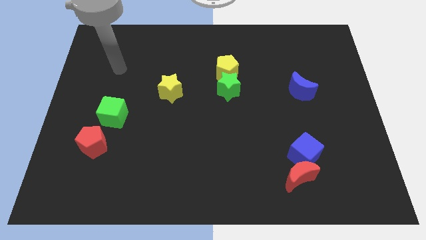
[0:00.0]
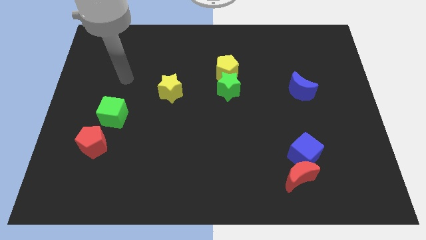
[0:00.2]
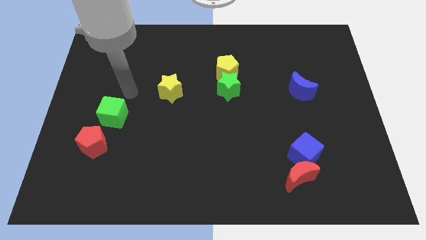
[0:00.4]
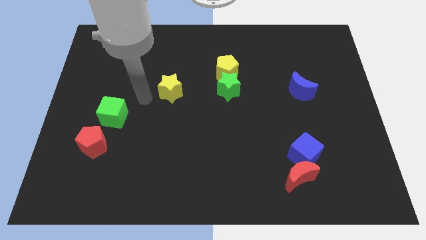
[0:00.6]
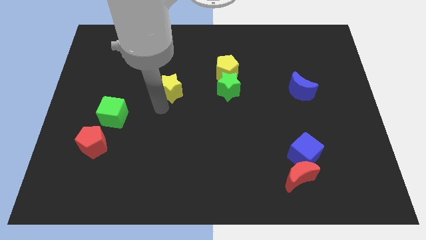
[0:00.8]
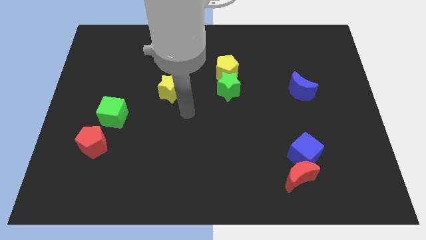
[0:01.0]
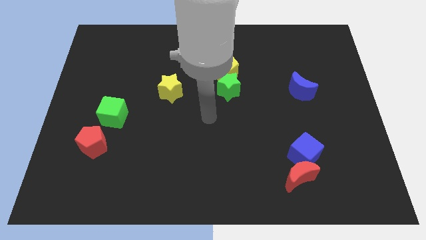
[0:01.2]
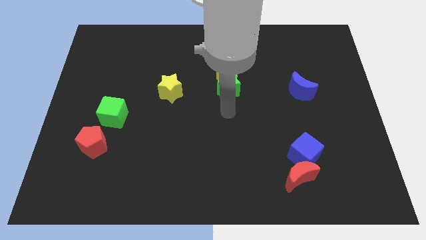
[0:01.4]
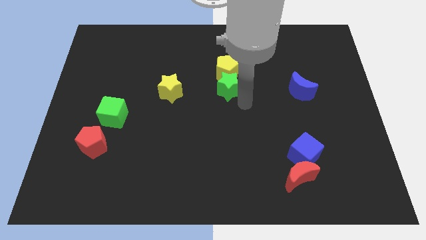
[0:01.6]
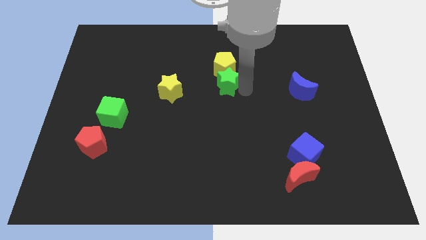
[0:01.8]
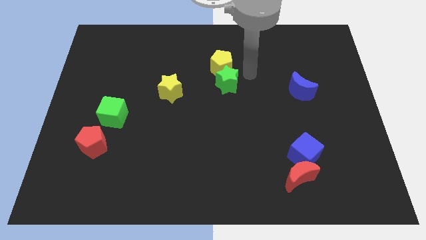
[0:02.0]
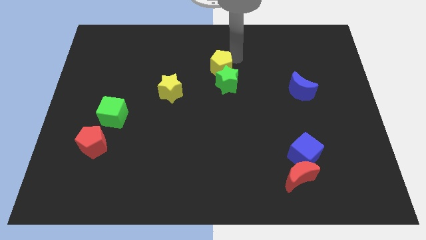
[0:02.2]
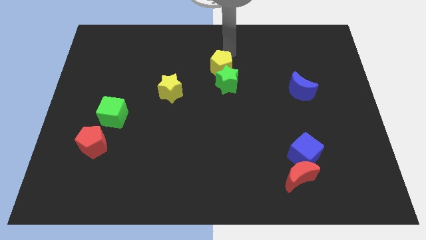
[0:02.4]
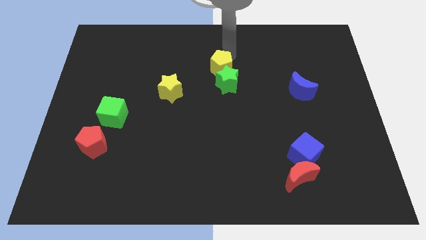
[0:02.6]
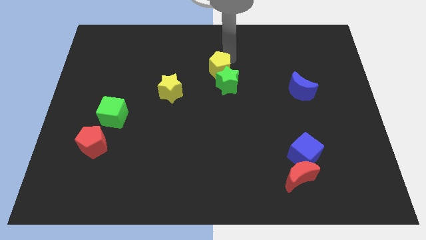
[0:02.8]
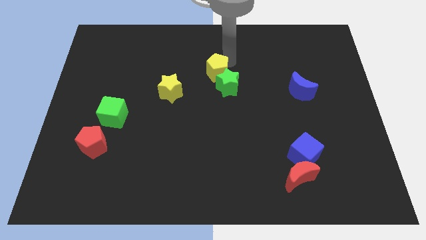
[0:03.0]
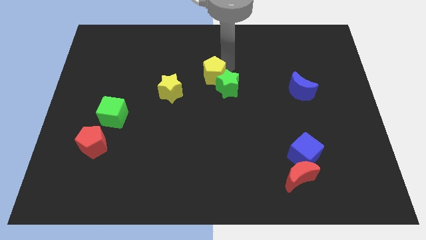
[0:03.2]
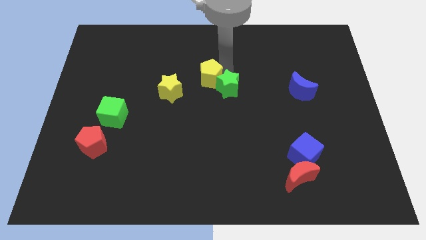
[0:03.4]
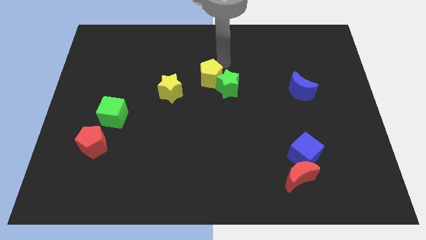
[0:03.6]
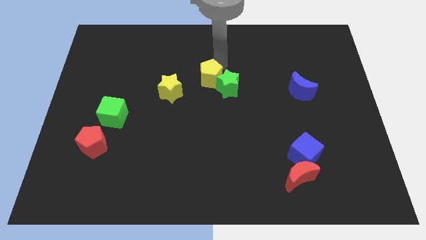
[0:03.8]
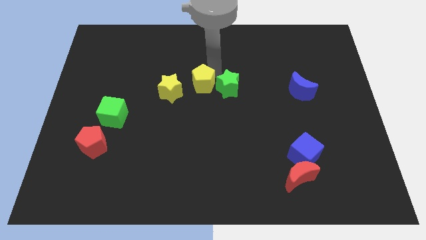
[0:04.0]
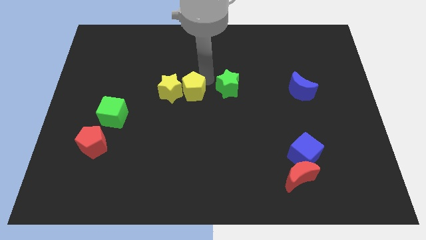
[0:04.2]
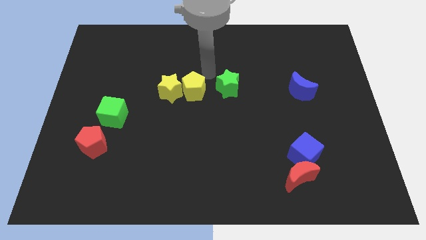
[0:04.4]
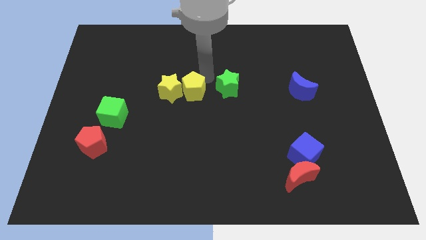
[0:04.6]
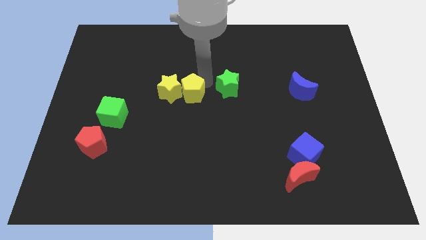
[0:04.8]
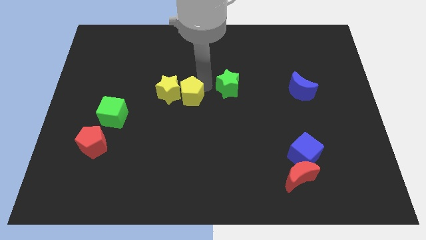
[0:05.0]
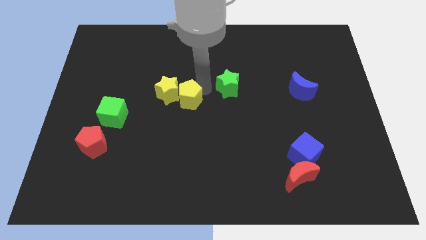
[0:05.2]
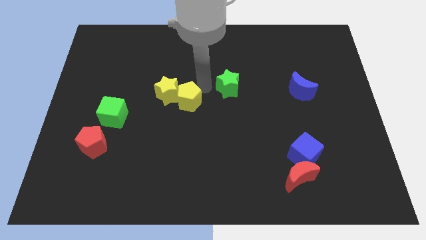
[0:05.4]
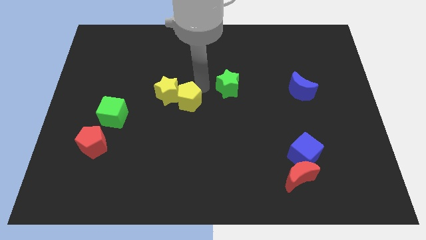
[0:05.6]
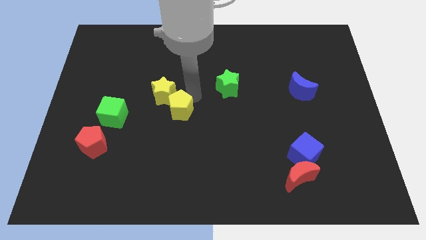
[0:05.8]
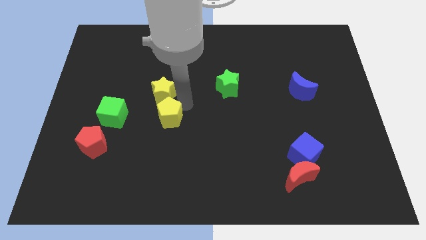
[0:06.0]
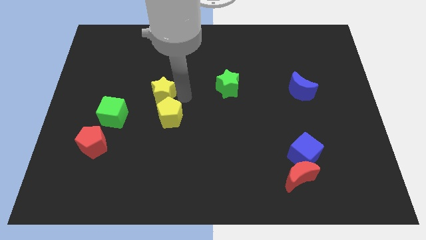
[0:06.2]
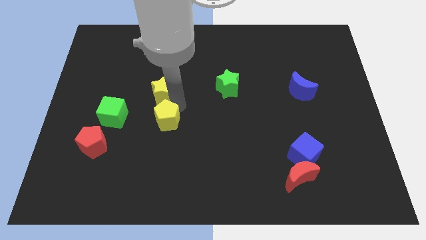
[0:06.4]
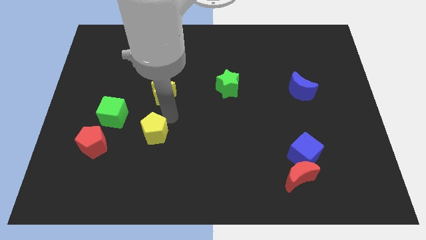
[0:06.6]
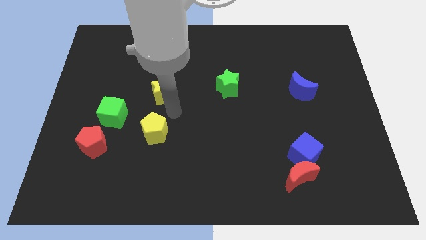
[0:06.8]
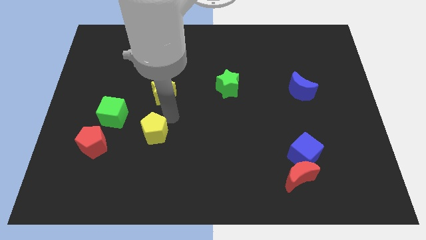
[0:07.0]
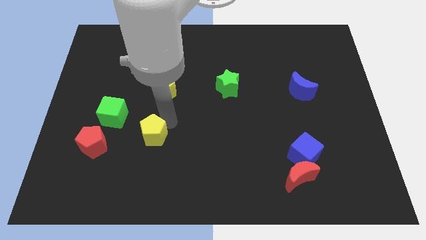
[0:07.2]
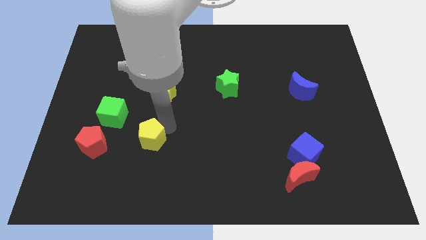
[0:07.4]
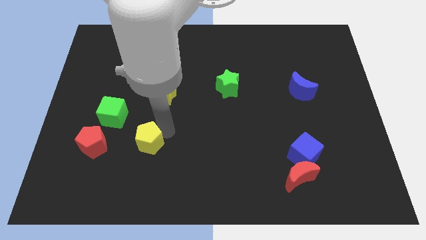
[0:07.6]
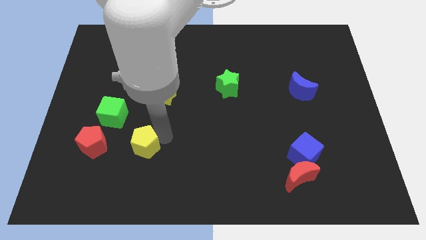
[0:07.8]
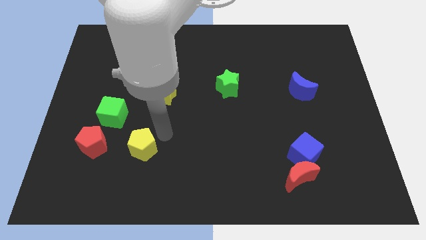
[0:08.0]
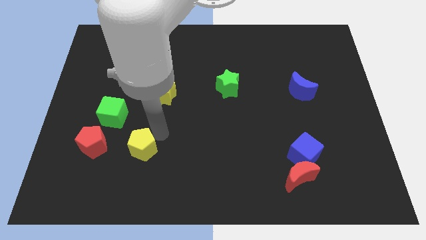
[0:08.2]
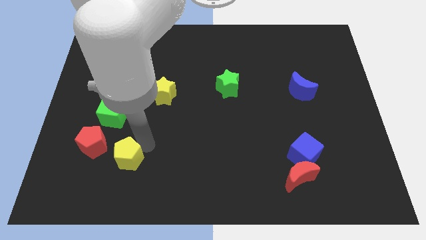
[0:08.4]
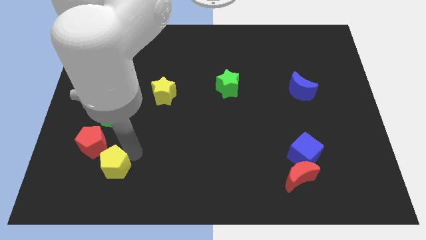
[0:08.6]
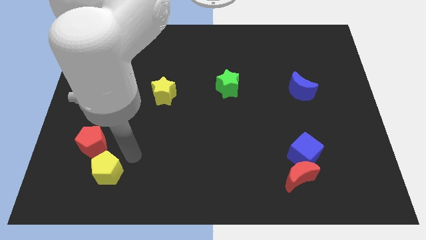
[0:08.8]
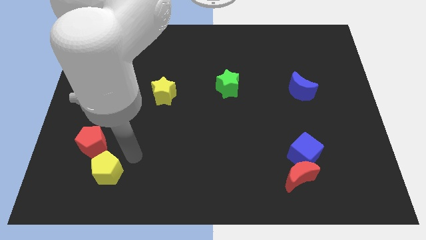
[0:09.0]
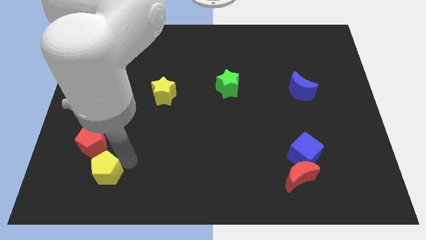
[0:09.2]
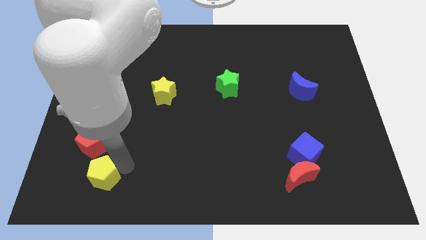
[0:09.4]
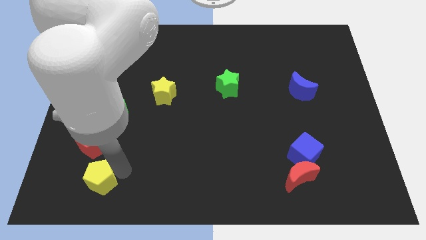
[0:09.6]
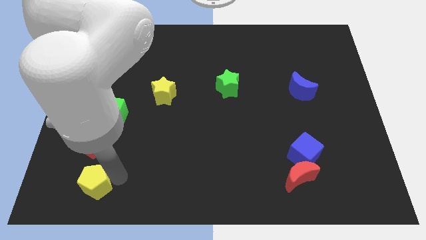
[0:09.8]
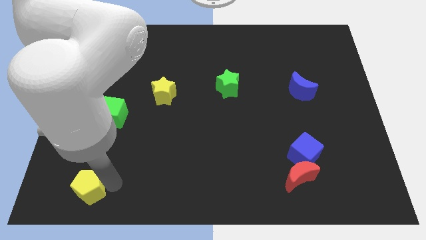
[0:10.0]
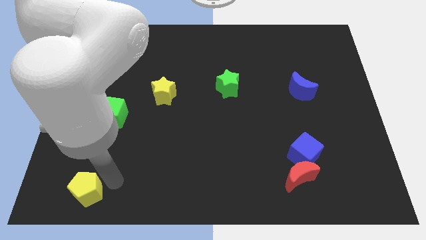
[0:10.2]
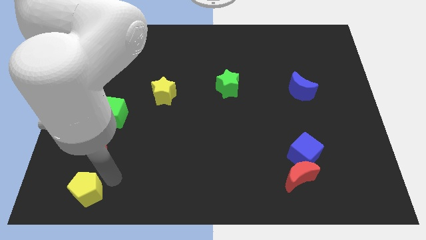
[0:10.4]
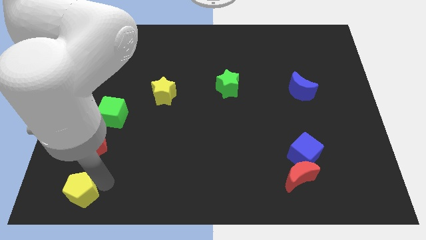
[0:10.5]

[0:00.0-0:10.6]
push the yellow pentagon to the bottom left

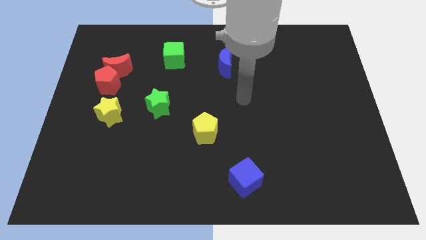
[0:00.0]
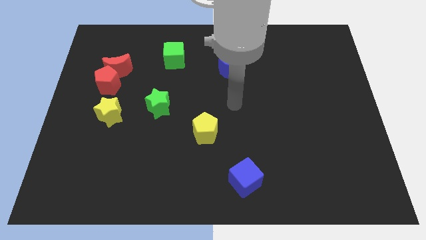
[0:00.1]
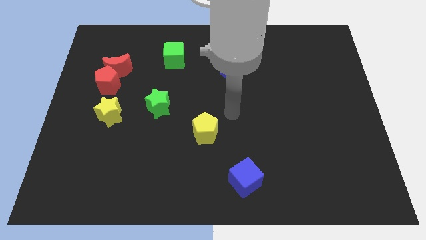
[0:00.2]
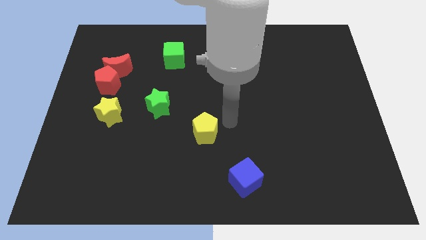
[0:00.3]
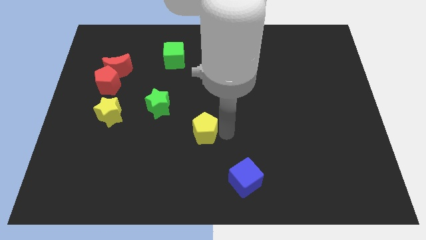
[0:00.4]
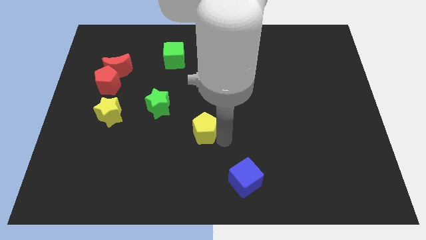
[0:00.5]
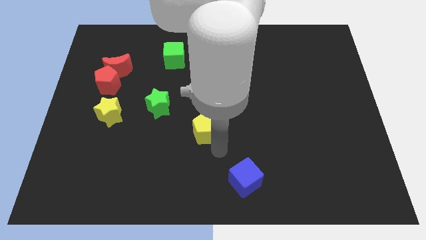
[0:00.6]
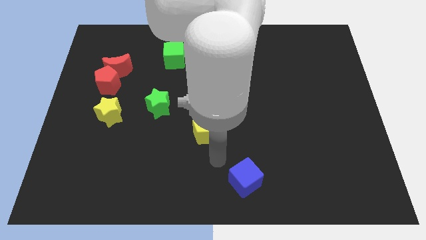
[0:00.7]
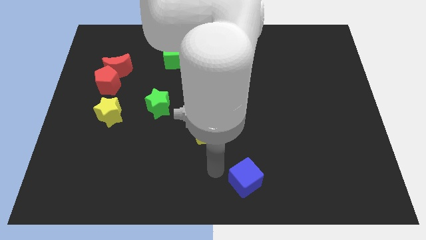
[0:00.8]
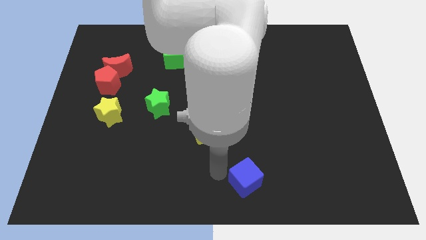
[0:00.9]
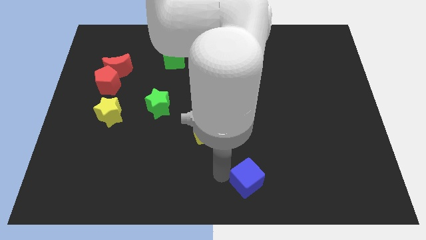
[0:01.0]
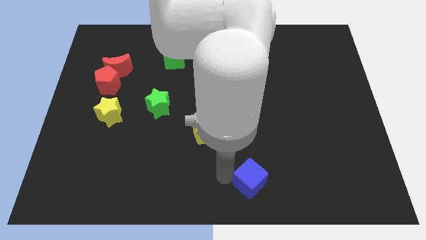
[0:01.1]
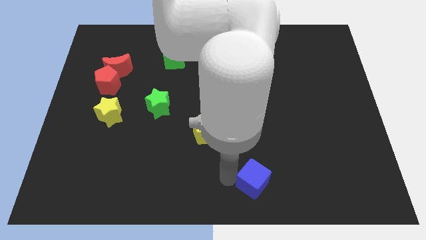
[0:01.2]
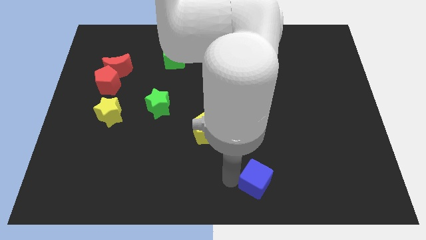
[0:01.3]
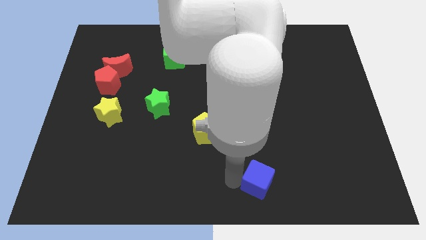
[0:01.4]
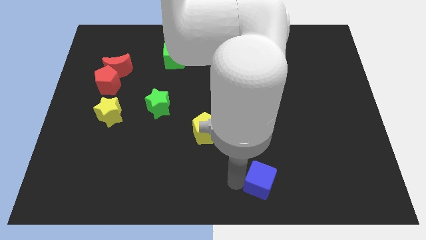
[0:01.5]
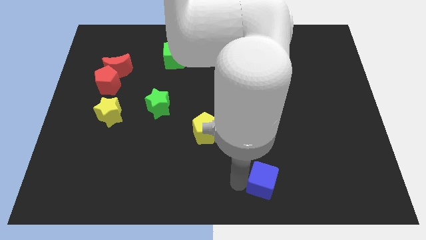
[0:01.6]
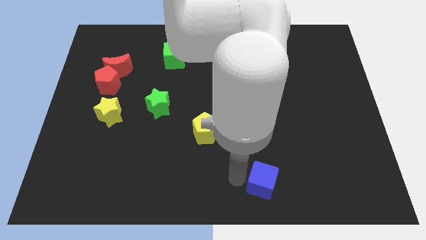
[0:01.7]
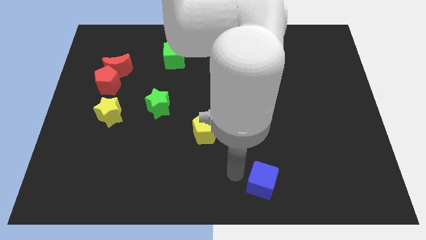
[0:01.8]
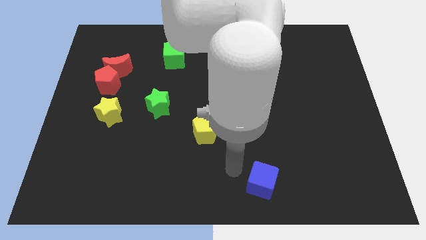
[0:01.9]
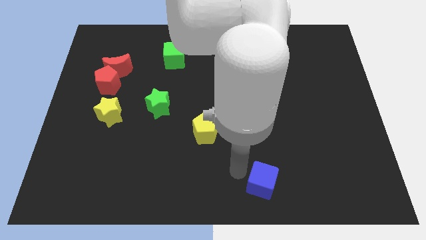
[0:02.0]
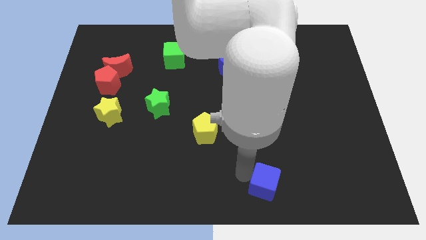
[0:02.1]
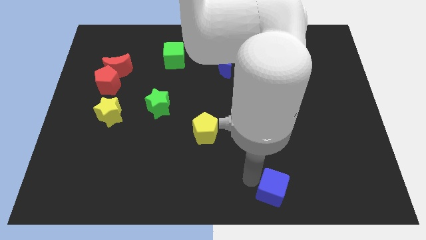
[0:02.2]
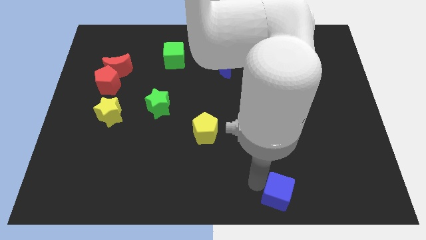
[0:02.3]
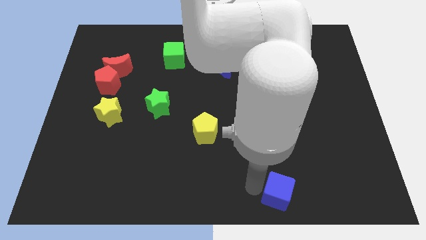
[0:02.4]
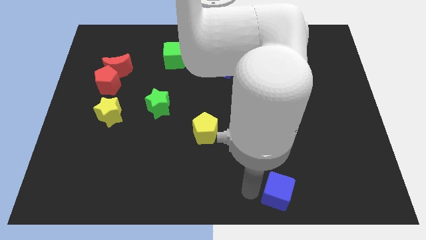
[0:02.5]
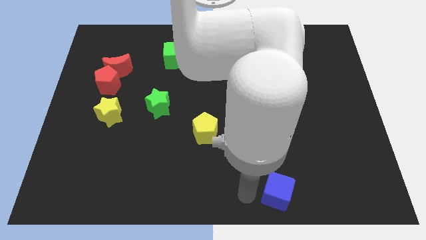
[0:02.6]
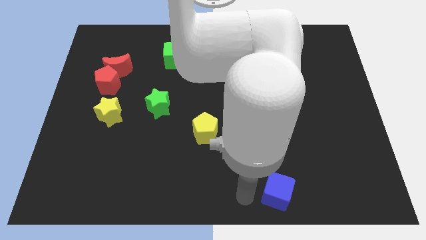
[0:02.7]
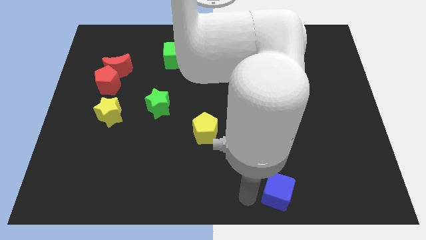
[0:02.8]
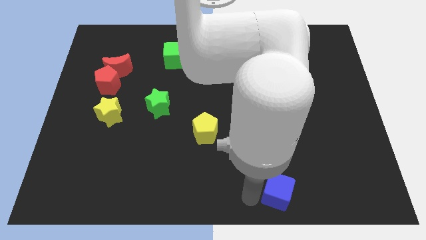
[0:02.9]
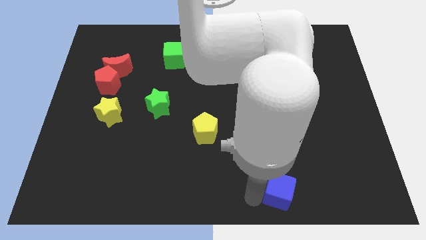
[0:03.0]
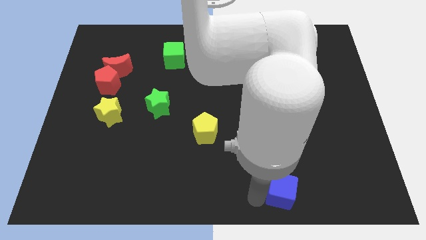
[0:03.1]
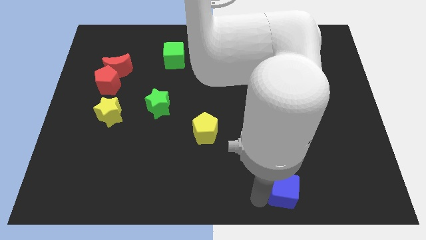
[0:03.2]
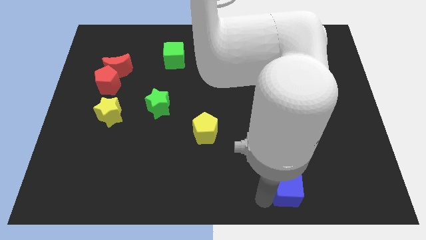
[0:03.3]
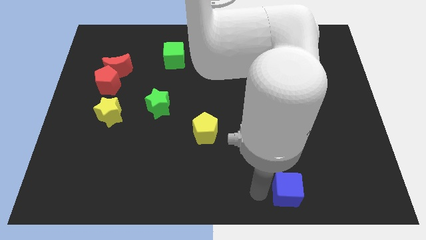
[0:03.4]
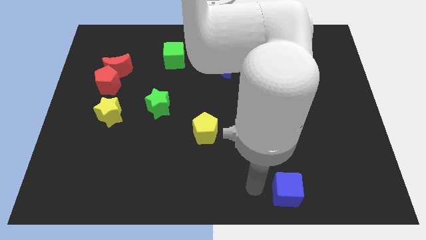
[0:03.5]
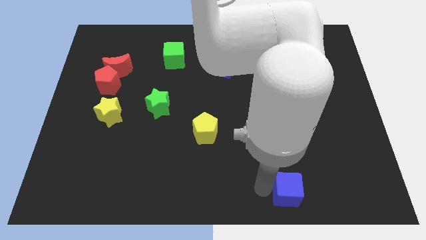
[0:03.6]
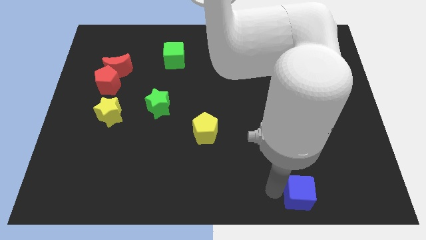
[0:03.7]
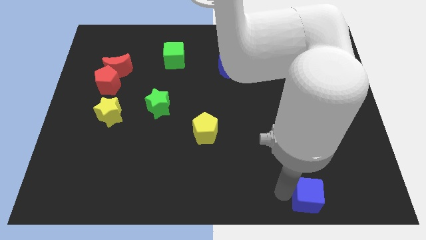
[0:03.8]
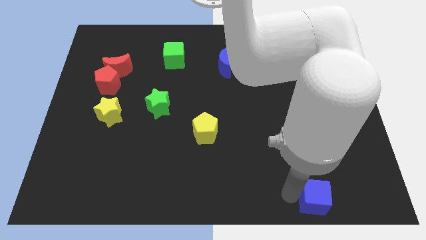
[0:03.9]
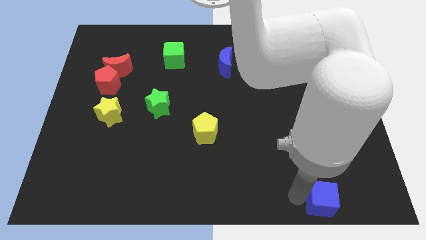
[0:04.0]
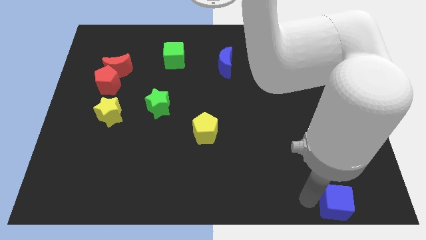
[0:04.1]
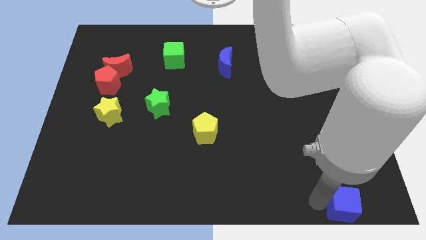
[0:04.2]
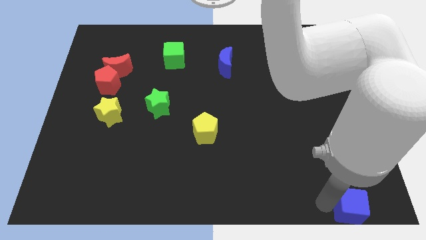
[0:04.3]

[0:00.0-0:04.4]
put the blue cube to the bottom right of the board
